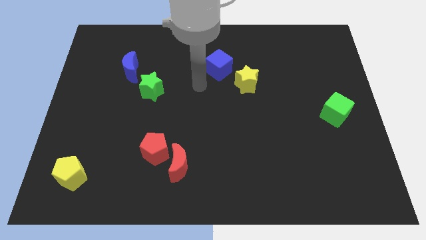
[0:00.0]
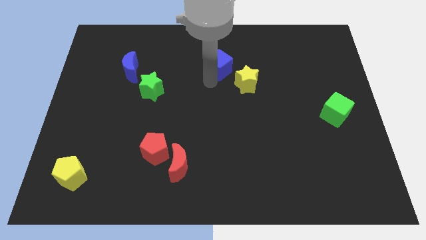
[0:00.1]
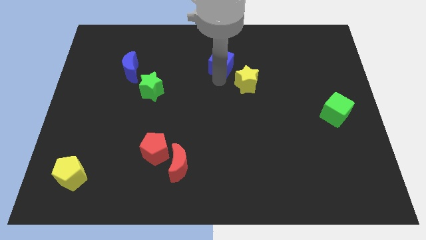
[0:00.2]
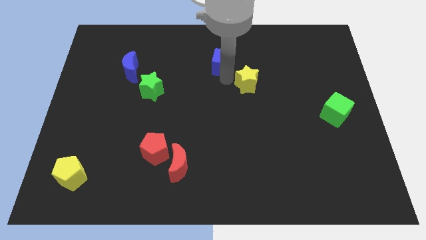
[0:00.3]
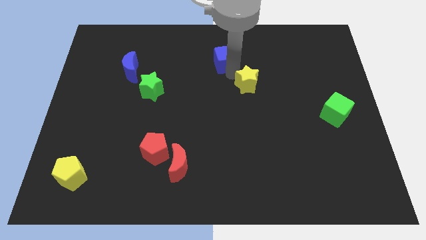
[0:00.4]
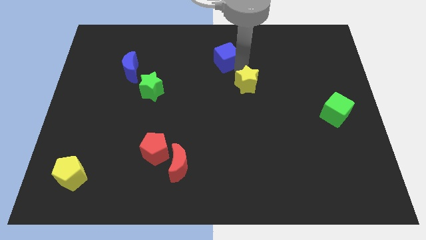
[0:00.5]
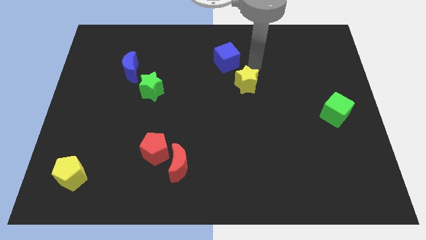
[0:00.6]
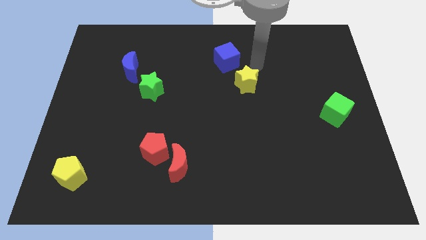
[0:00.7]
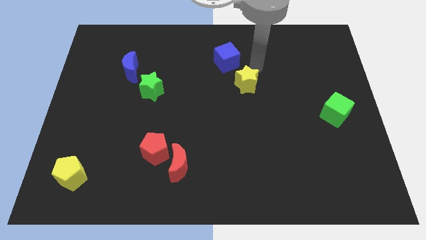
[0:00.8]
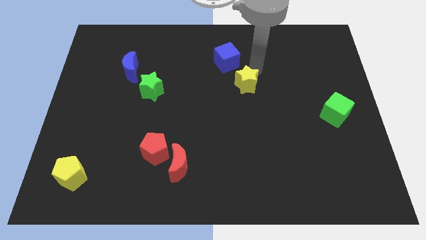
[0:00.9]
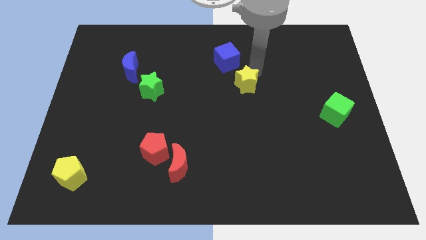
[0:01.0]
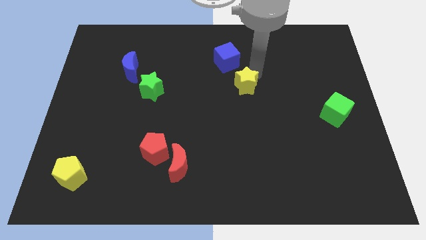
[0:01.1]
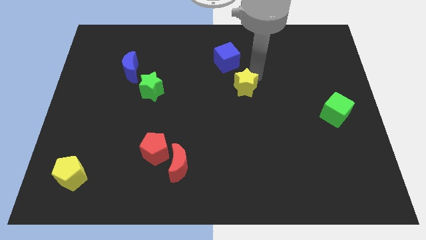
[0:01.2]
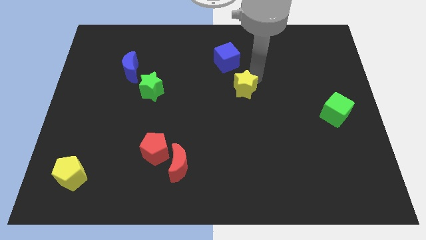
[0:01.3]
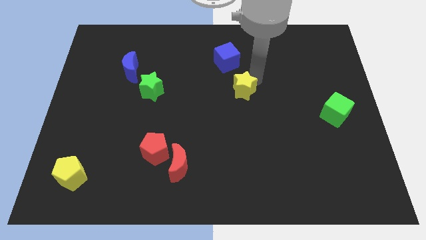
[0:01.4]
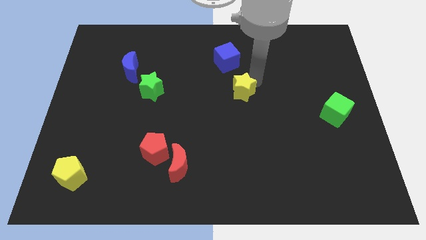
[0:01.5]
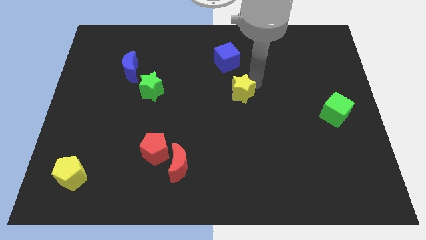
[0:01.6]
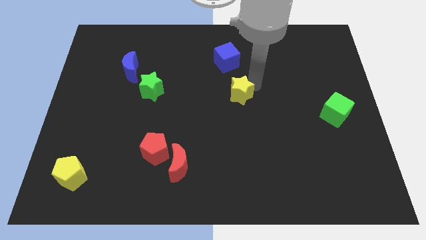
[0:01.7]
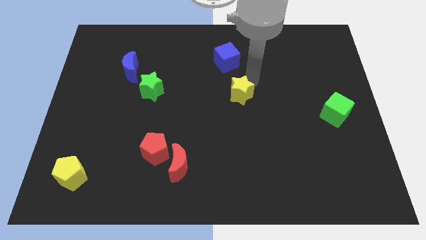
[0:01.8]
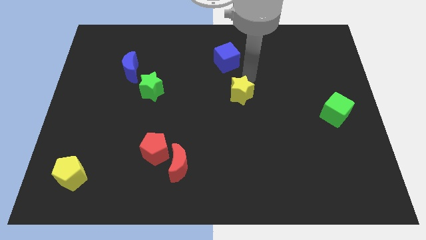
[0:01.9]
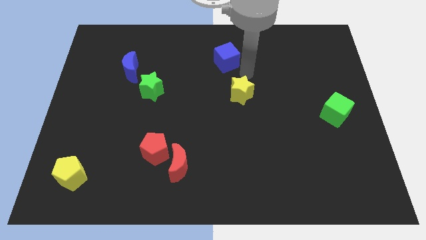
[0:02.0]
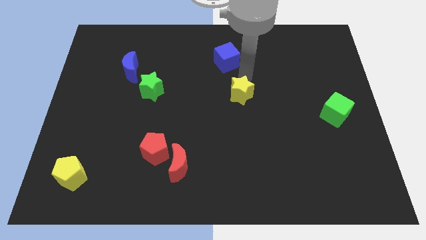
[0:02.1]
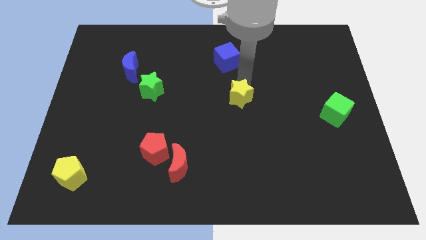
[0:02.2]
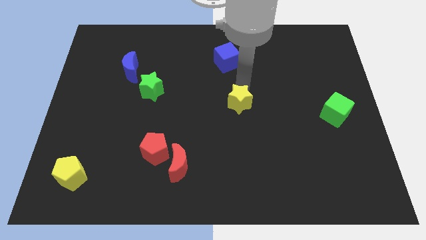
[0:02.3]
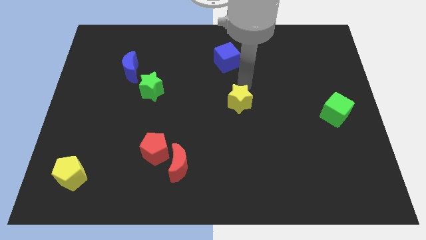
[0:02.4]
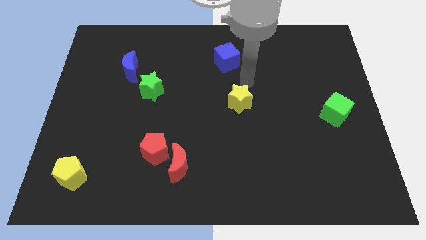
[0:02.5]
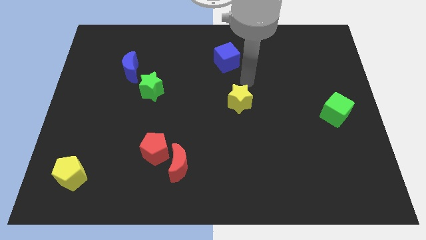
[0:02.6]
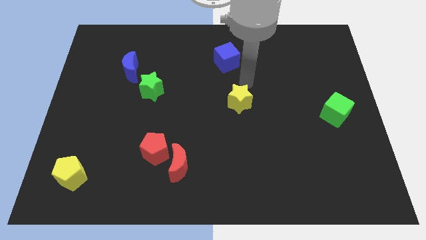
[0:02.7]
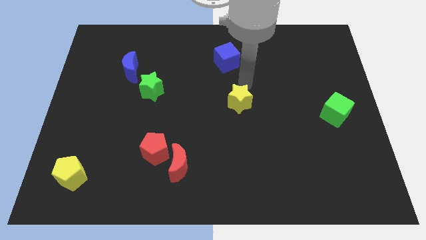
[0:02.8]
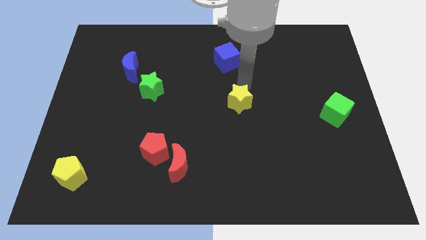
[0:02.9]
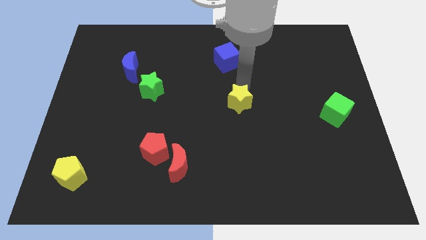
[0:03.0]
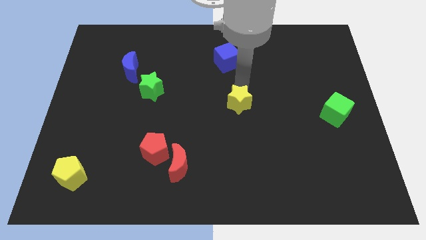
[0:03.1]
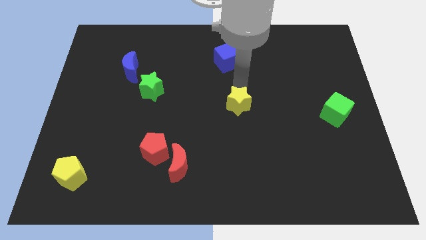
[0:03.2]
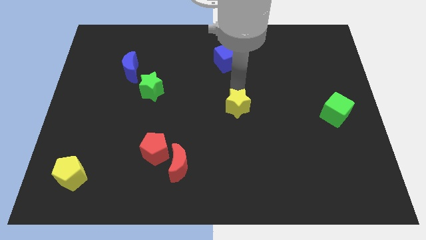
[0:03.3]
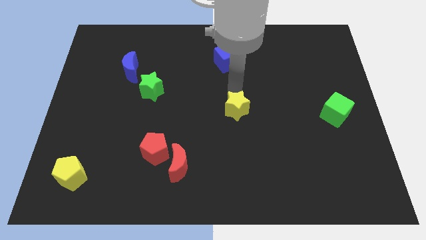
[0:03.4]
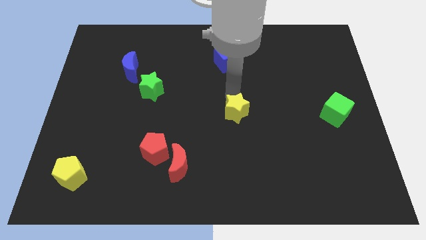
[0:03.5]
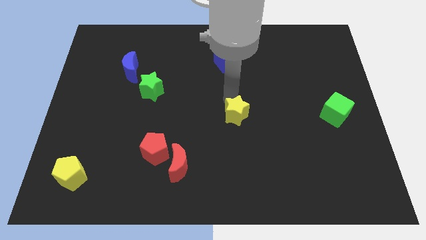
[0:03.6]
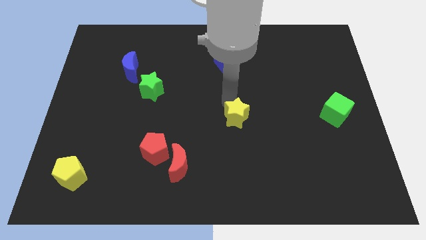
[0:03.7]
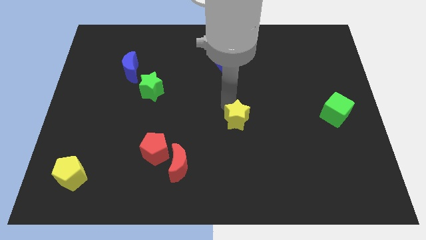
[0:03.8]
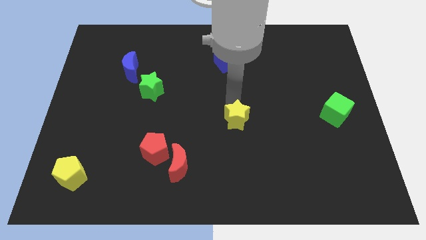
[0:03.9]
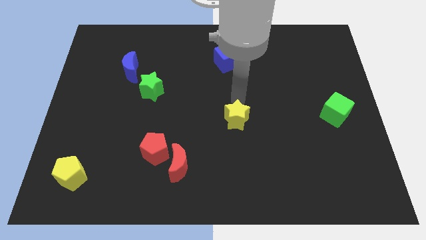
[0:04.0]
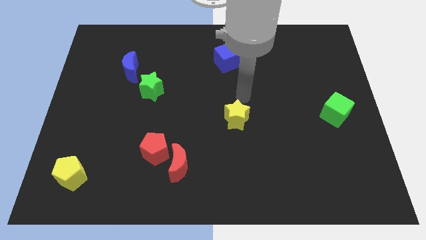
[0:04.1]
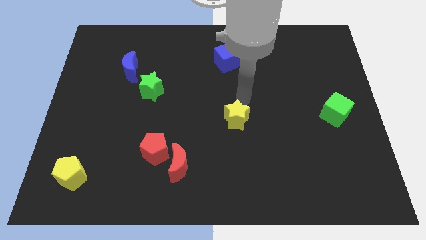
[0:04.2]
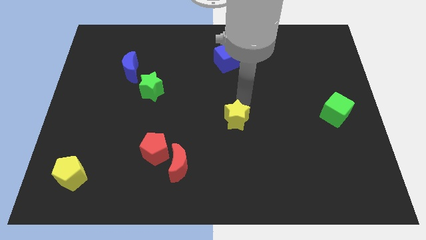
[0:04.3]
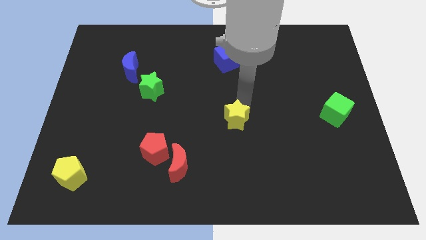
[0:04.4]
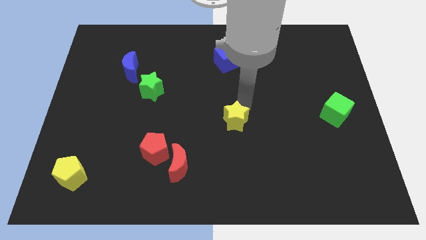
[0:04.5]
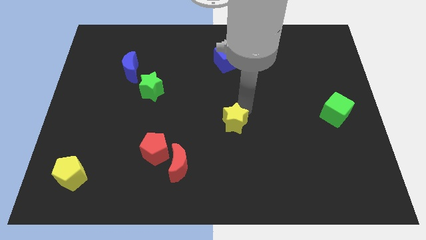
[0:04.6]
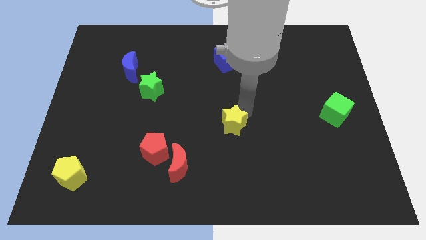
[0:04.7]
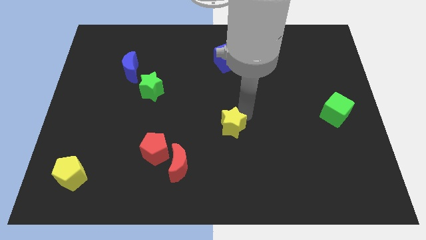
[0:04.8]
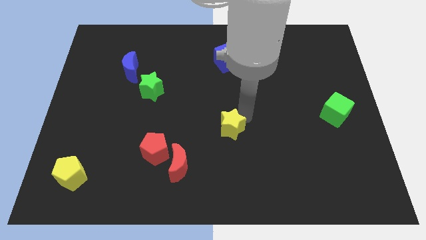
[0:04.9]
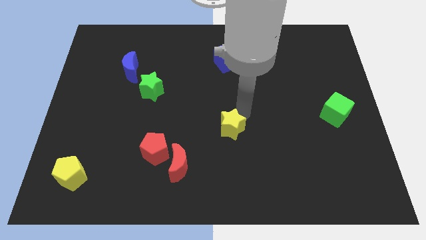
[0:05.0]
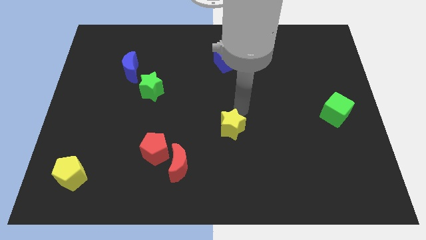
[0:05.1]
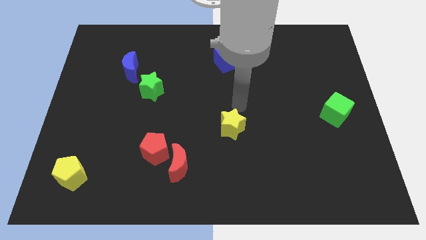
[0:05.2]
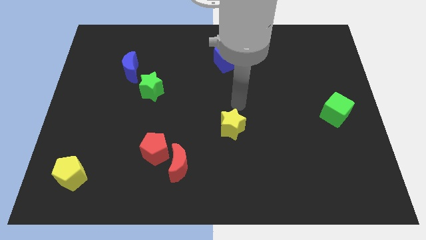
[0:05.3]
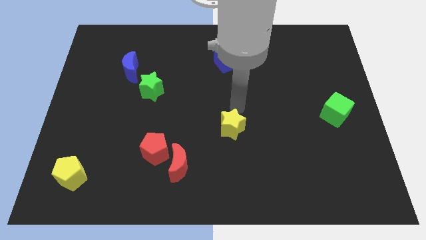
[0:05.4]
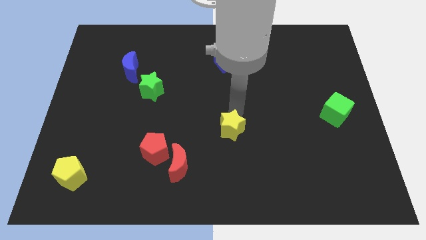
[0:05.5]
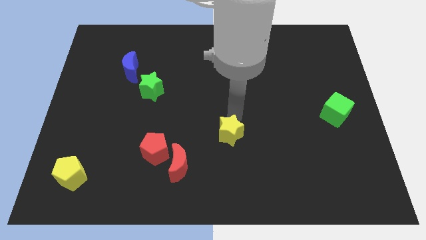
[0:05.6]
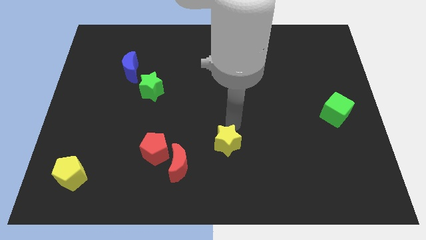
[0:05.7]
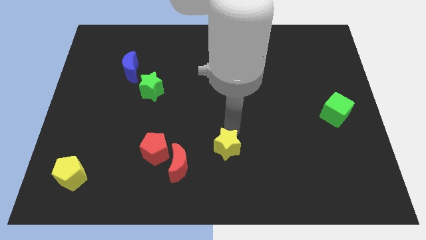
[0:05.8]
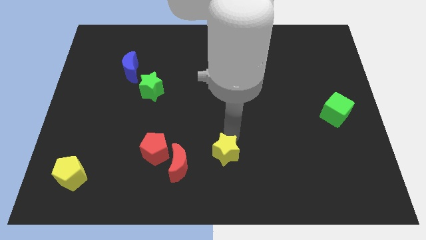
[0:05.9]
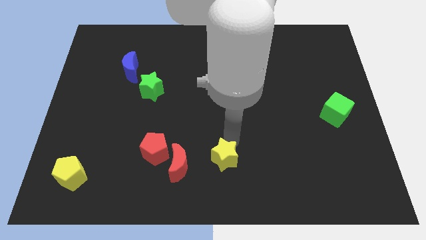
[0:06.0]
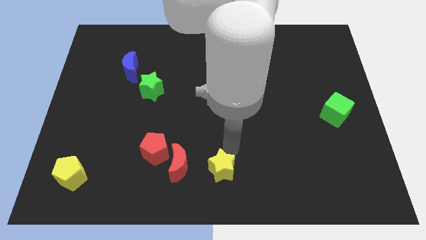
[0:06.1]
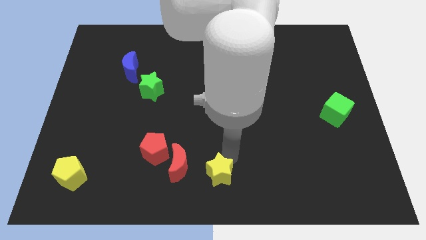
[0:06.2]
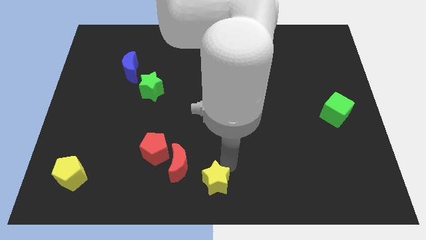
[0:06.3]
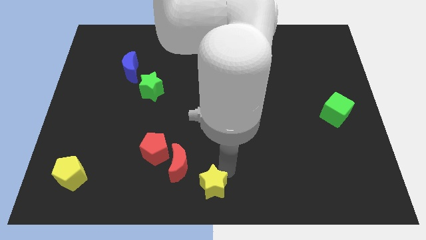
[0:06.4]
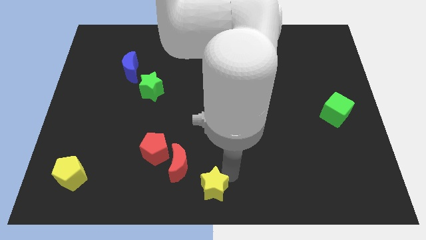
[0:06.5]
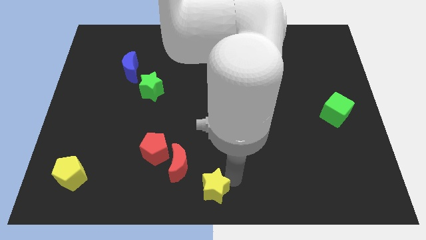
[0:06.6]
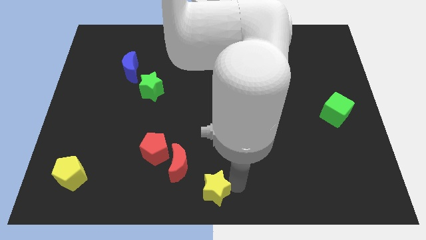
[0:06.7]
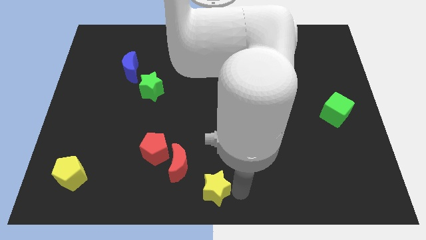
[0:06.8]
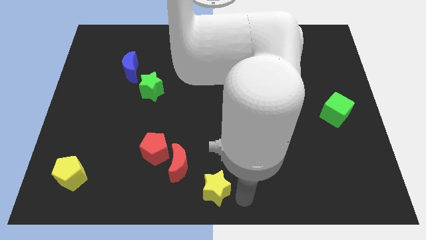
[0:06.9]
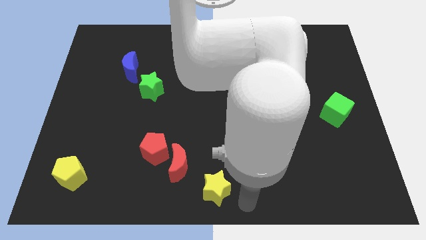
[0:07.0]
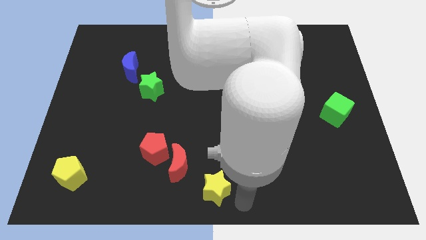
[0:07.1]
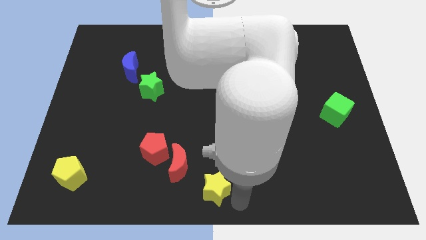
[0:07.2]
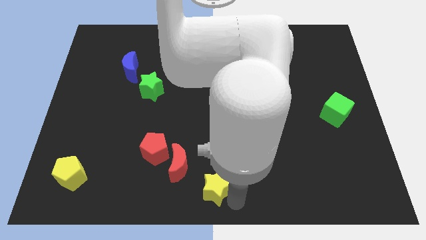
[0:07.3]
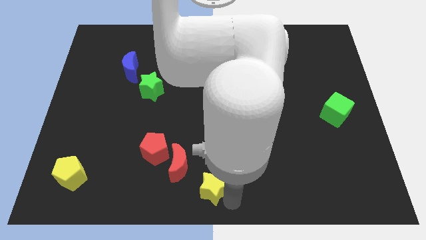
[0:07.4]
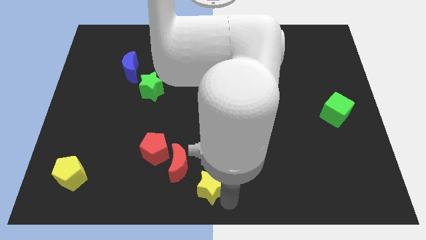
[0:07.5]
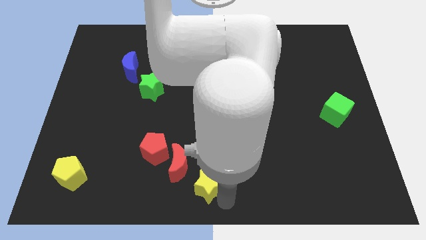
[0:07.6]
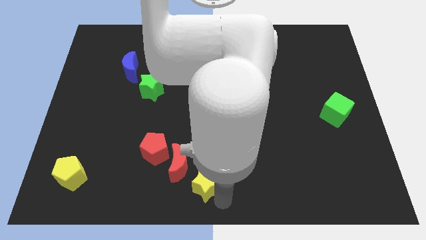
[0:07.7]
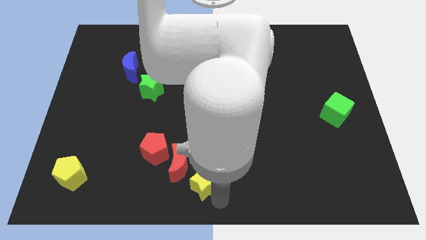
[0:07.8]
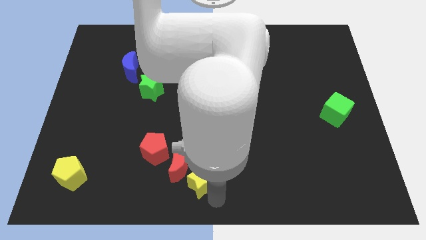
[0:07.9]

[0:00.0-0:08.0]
put the yellow star to the bottom right of the red pentagon
